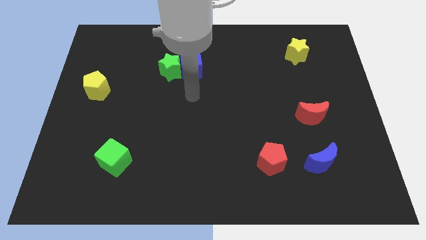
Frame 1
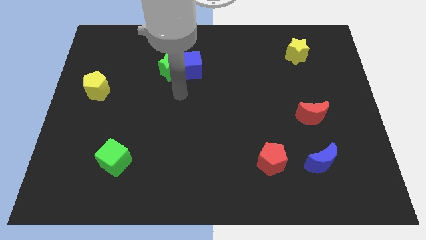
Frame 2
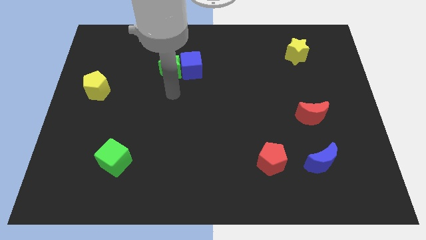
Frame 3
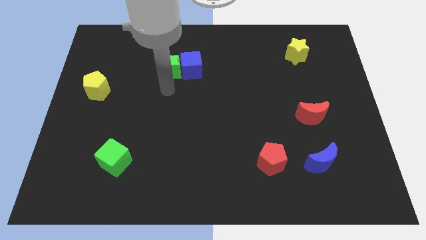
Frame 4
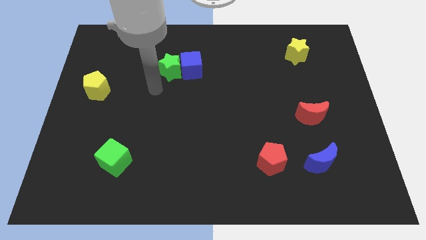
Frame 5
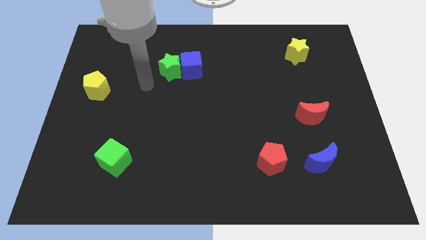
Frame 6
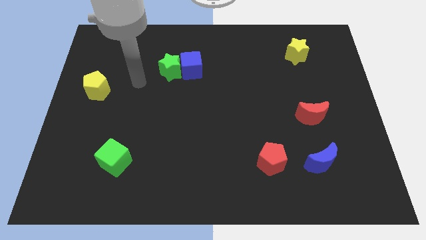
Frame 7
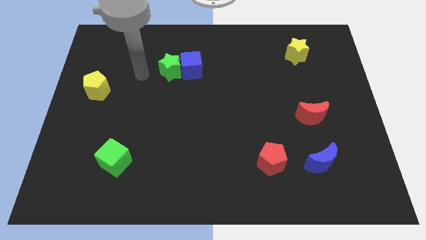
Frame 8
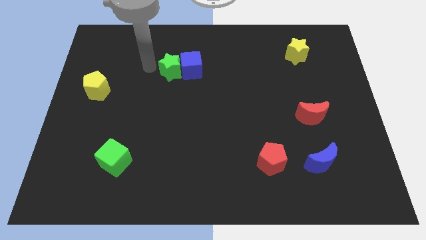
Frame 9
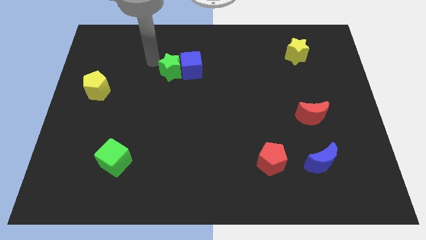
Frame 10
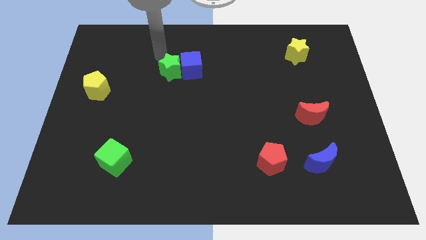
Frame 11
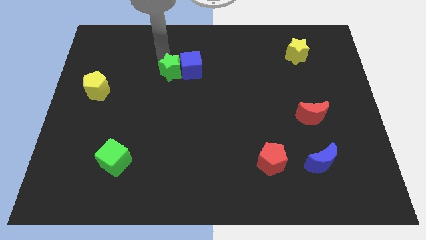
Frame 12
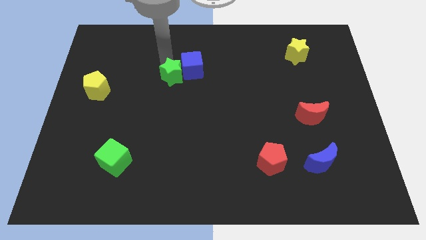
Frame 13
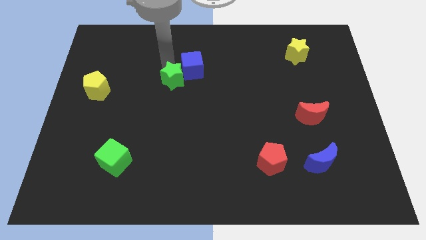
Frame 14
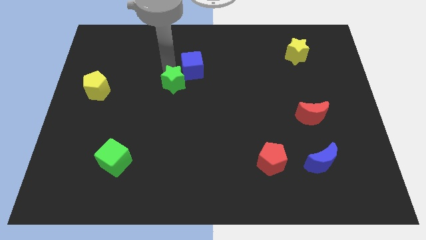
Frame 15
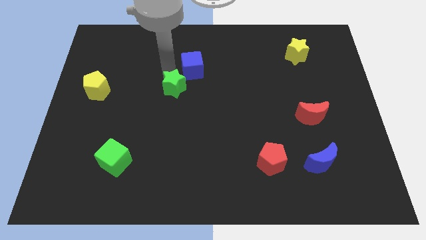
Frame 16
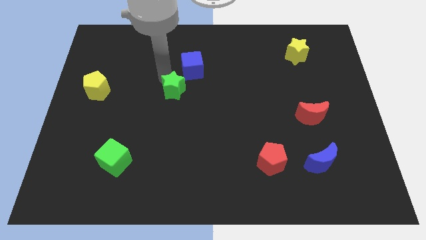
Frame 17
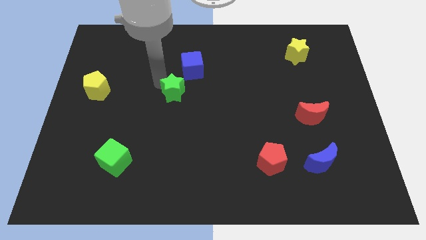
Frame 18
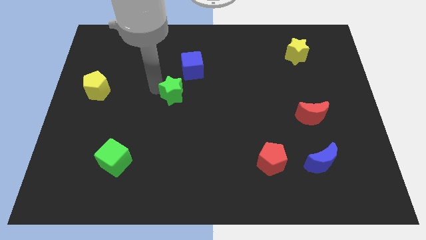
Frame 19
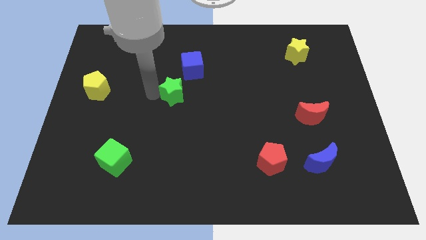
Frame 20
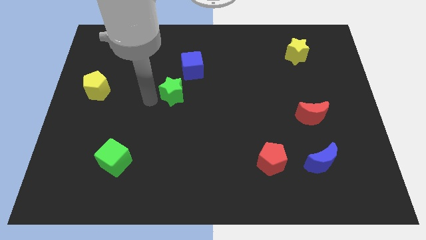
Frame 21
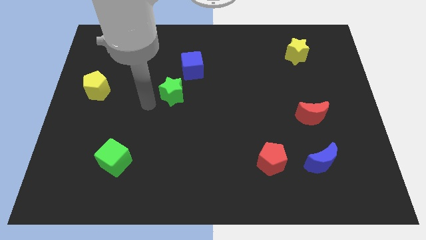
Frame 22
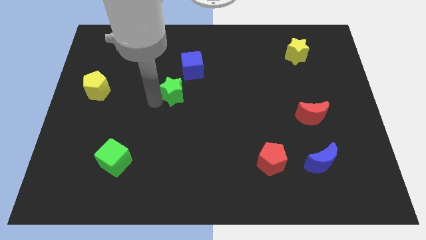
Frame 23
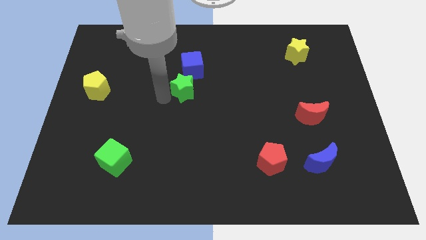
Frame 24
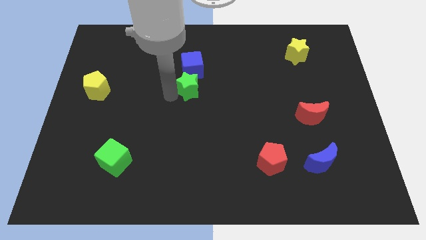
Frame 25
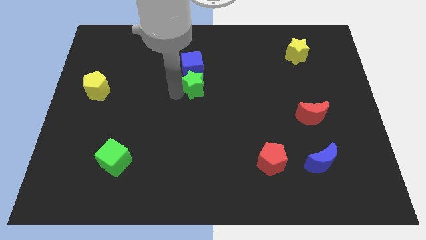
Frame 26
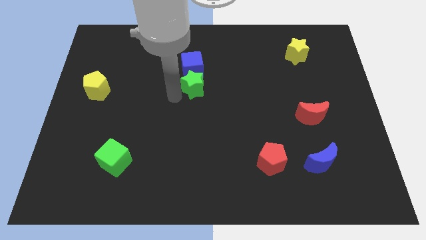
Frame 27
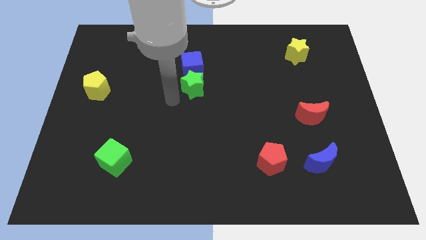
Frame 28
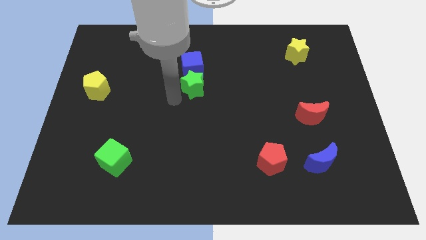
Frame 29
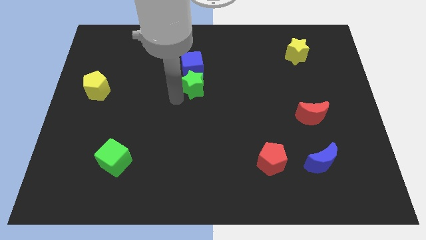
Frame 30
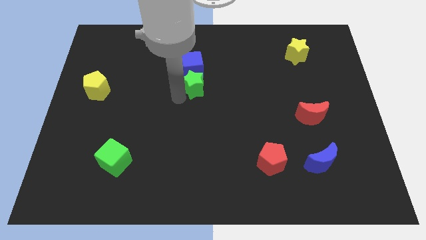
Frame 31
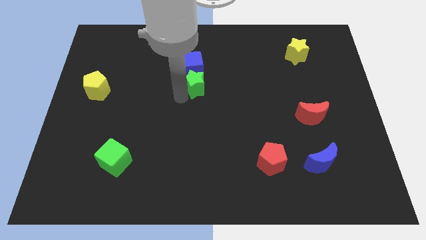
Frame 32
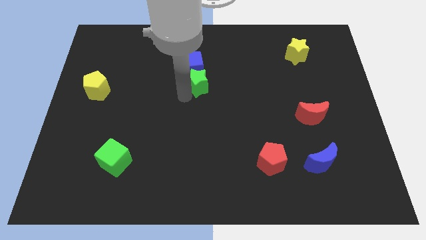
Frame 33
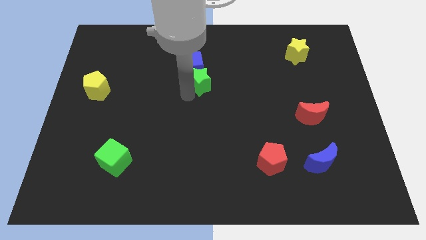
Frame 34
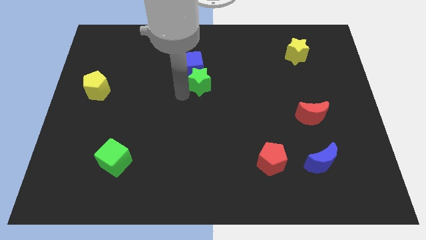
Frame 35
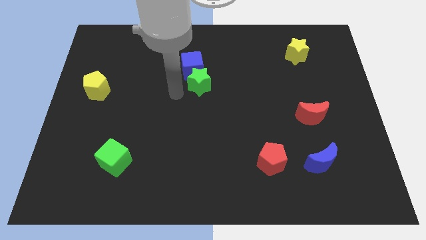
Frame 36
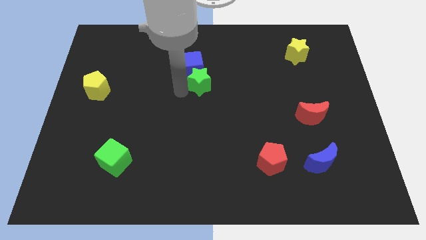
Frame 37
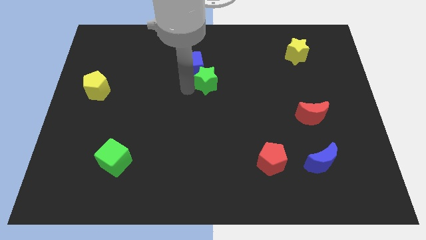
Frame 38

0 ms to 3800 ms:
slightly move the green star to the right

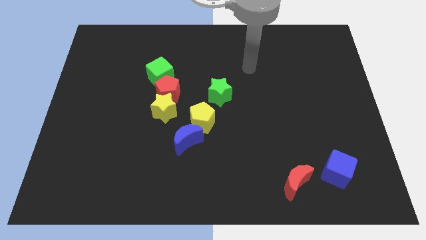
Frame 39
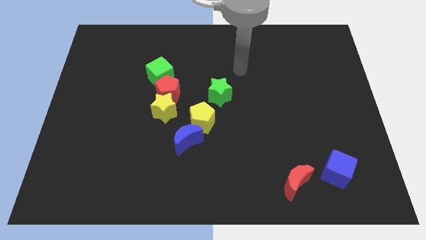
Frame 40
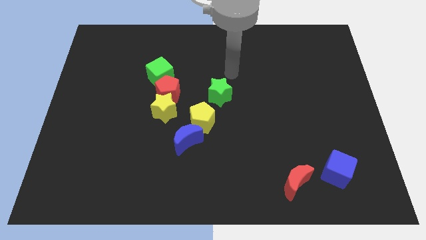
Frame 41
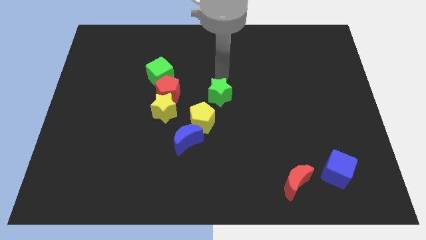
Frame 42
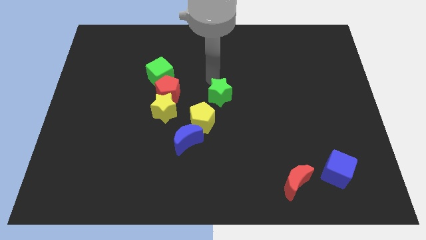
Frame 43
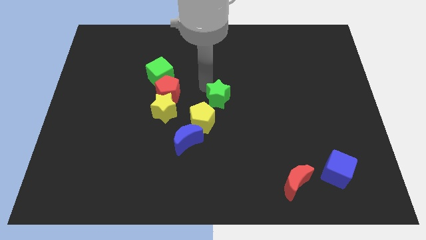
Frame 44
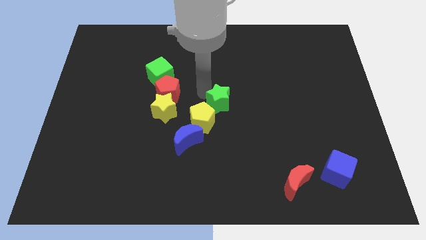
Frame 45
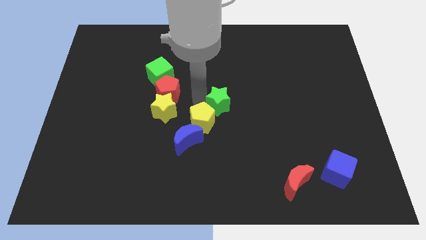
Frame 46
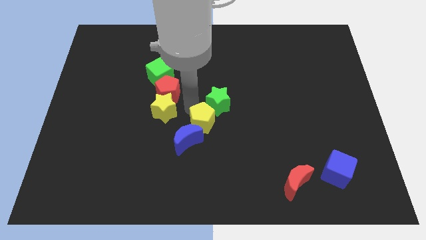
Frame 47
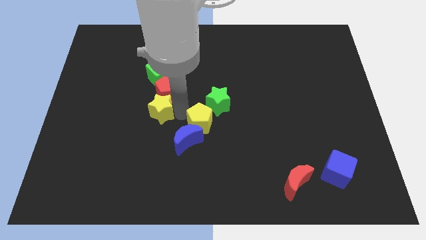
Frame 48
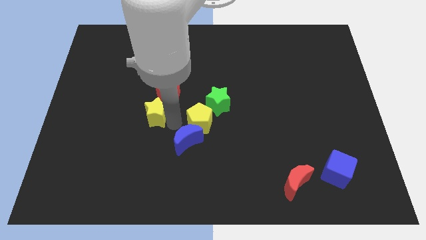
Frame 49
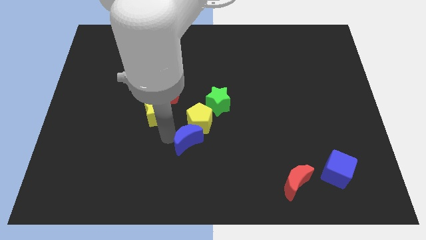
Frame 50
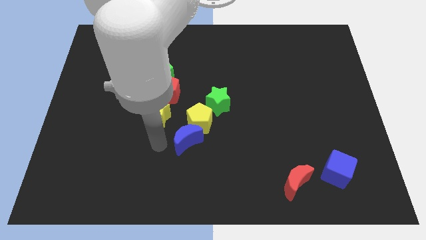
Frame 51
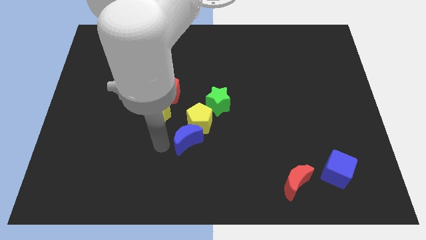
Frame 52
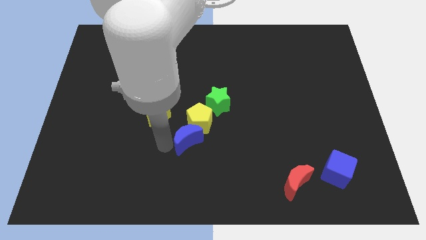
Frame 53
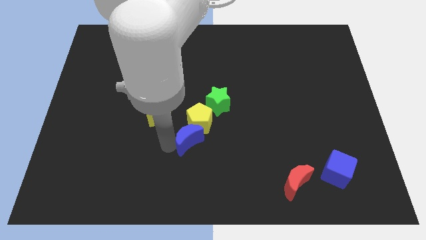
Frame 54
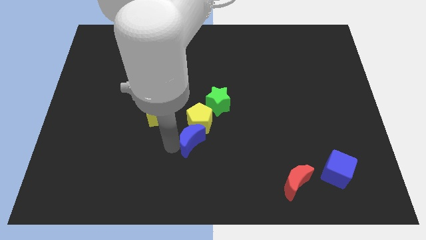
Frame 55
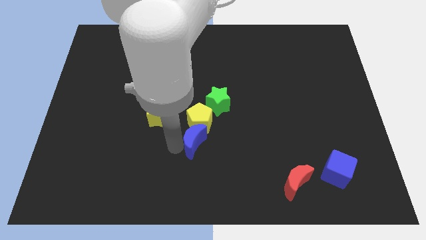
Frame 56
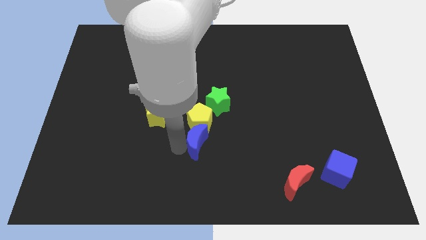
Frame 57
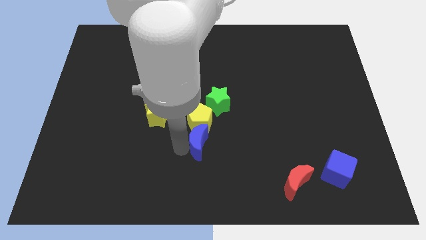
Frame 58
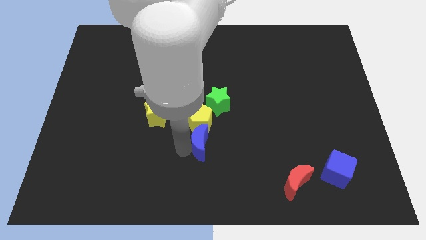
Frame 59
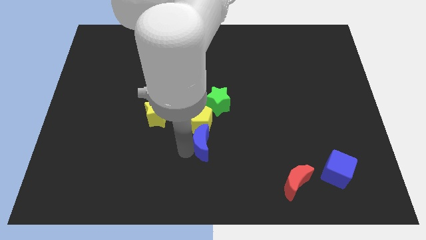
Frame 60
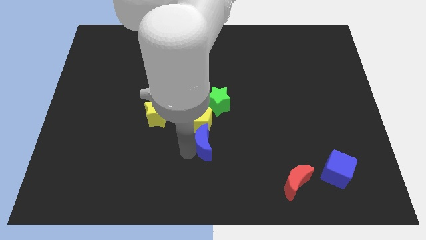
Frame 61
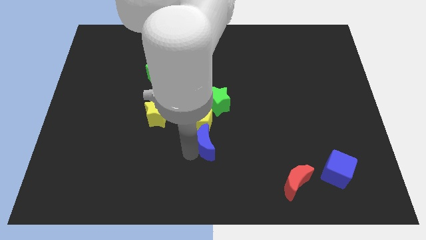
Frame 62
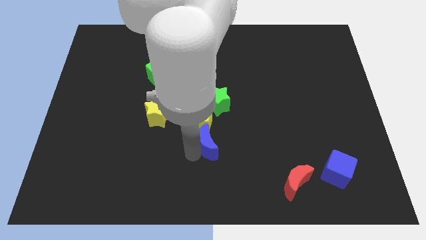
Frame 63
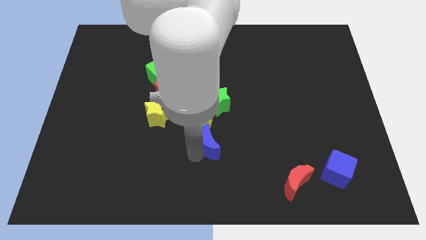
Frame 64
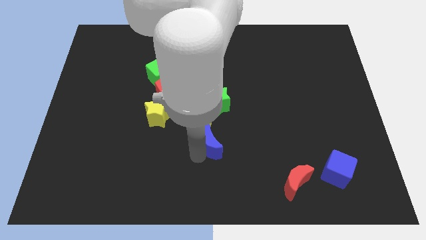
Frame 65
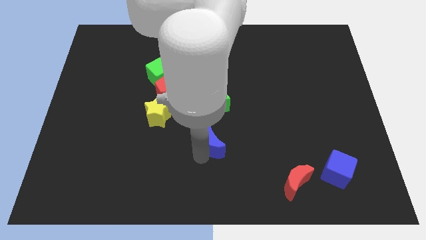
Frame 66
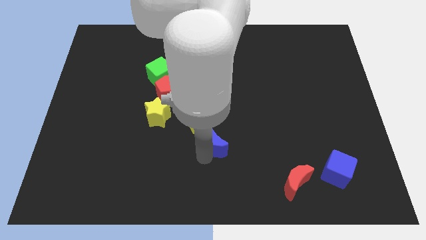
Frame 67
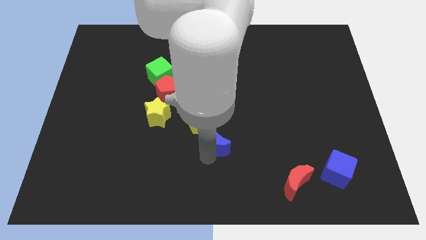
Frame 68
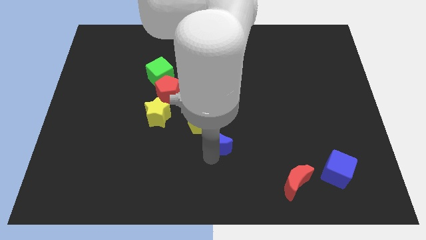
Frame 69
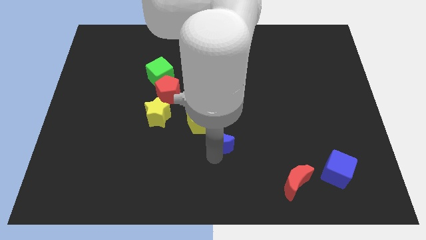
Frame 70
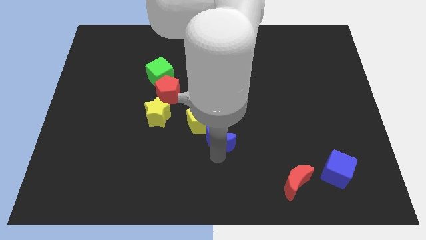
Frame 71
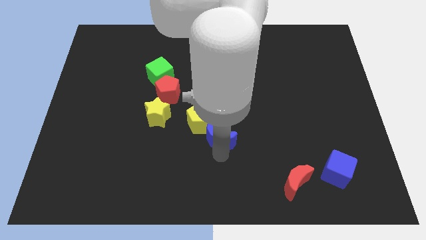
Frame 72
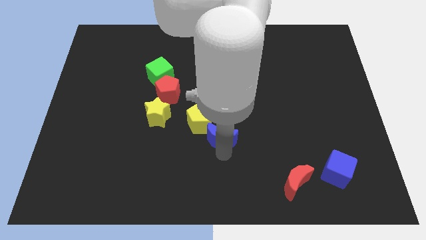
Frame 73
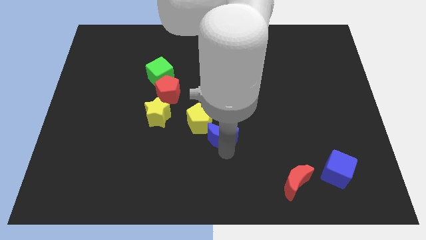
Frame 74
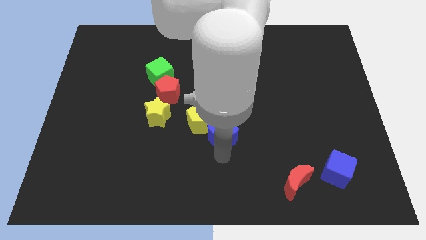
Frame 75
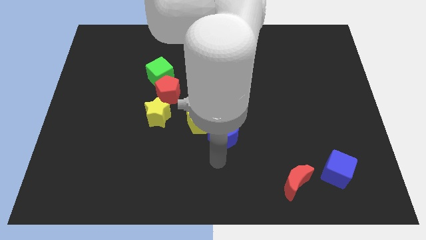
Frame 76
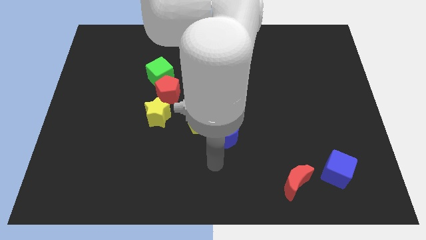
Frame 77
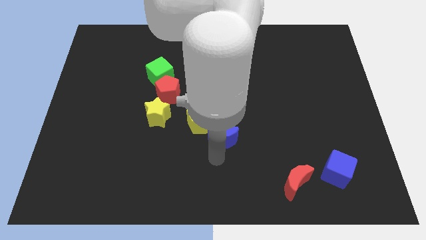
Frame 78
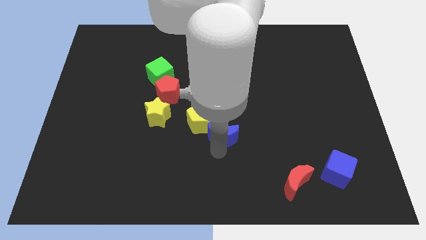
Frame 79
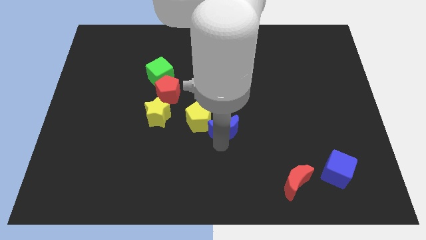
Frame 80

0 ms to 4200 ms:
slightly push the blue moon up and to the right diagonally
